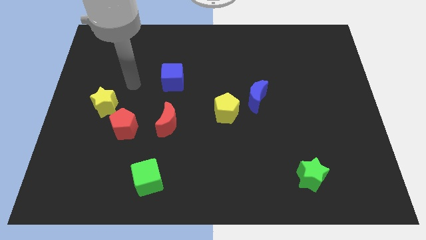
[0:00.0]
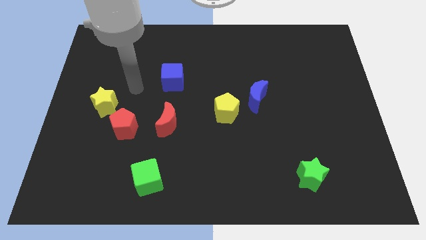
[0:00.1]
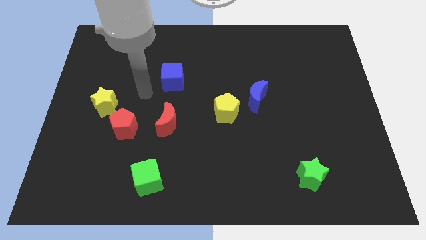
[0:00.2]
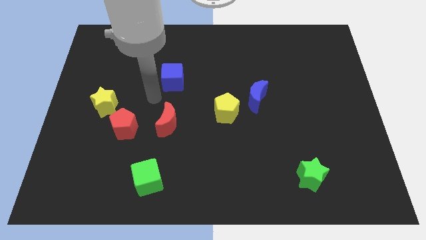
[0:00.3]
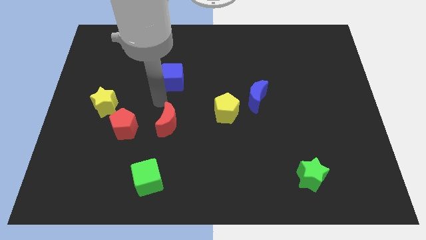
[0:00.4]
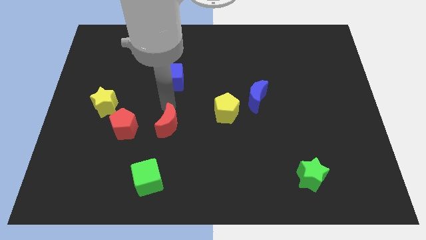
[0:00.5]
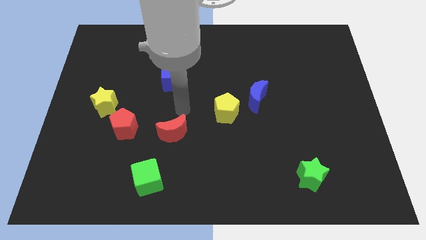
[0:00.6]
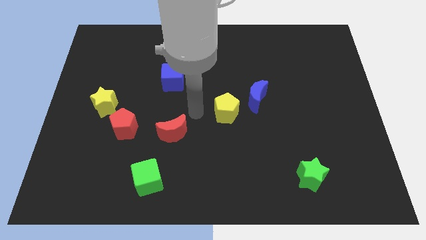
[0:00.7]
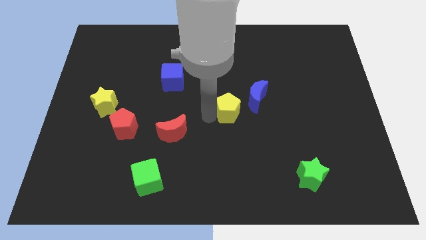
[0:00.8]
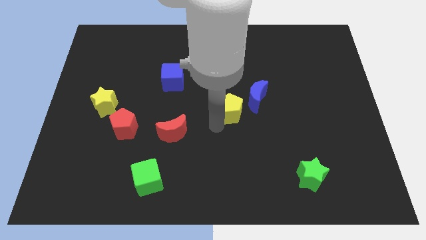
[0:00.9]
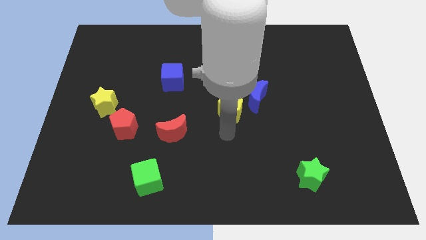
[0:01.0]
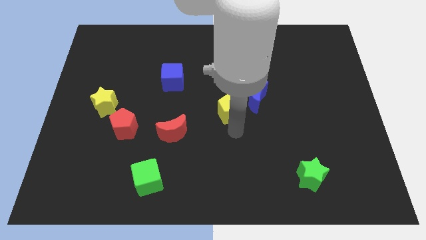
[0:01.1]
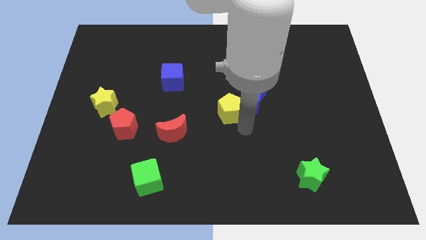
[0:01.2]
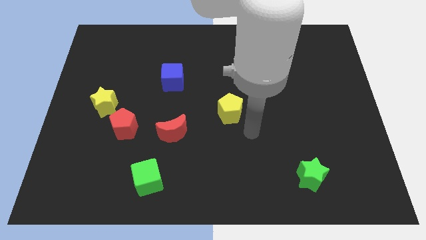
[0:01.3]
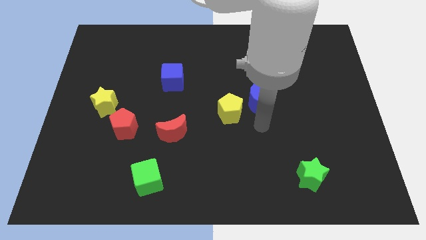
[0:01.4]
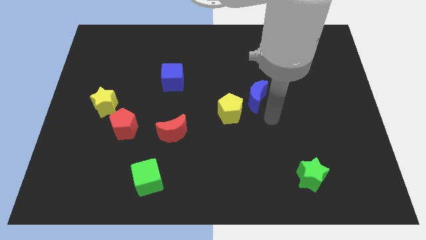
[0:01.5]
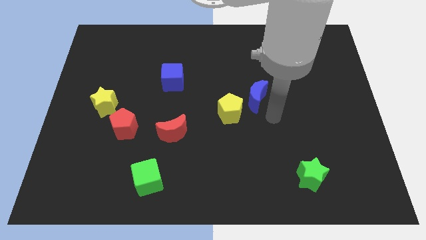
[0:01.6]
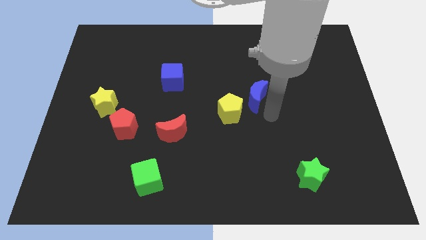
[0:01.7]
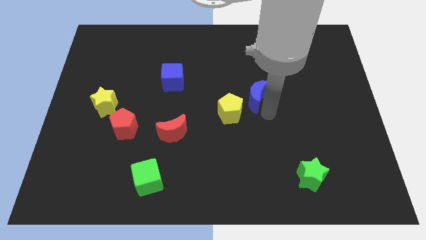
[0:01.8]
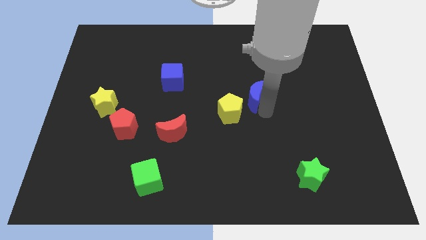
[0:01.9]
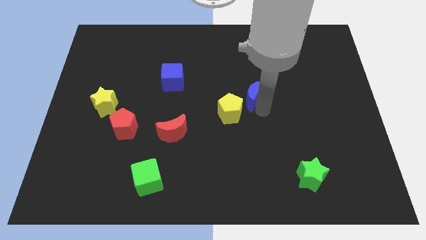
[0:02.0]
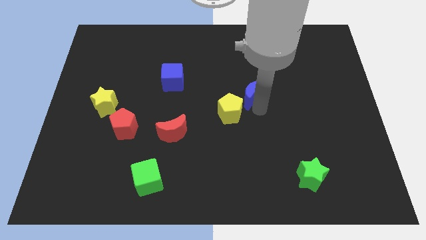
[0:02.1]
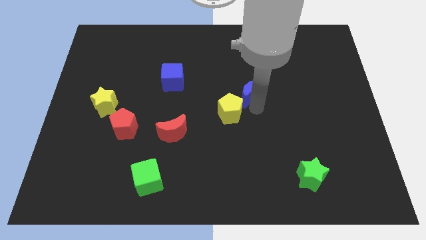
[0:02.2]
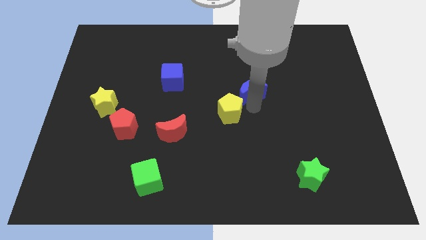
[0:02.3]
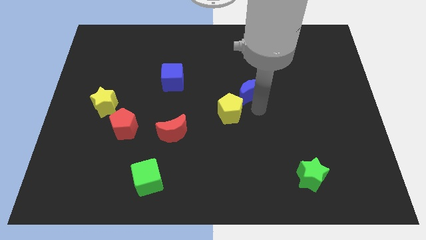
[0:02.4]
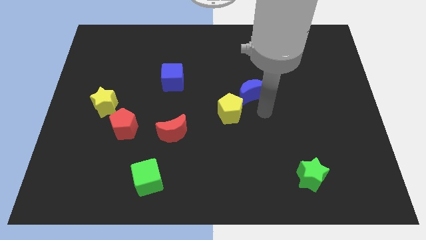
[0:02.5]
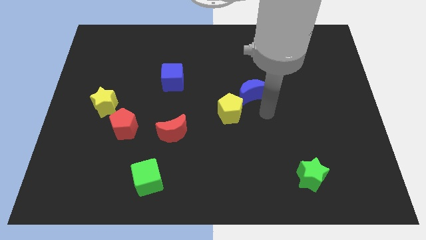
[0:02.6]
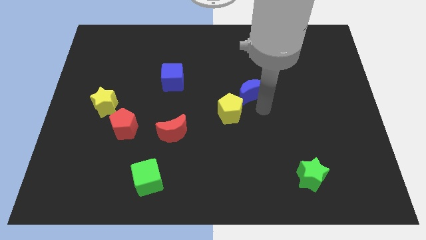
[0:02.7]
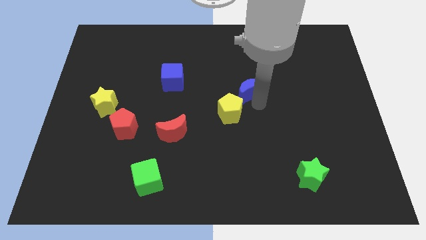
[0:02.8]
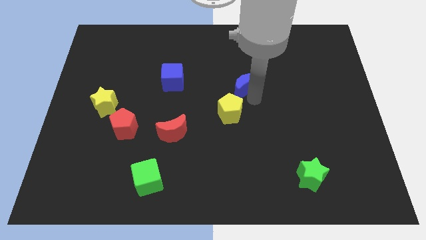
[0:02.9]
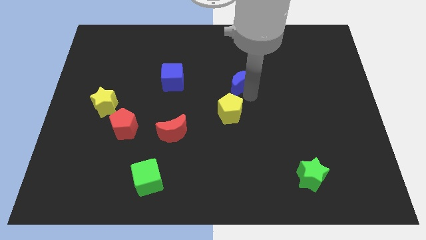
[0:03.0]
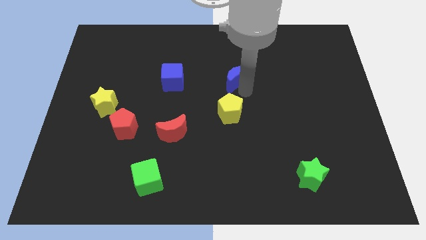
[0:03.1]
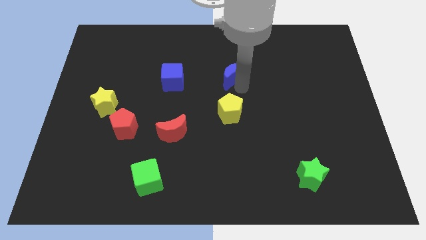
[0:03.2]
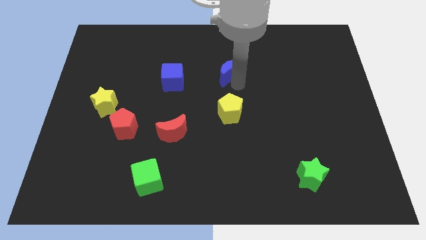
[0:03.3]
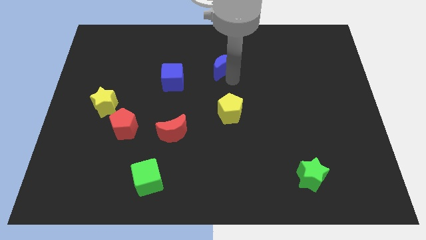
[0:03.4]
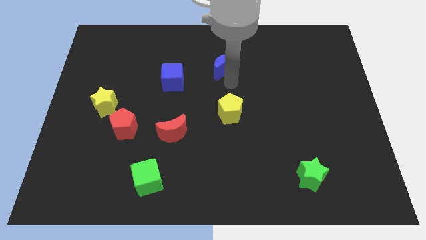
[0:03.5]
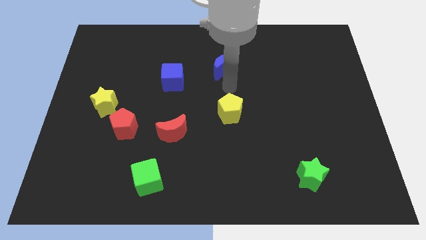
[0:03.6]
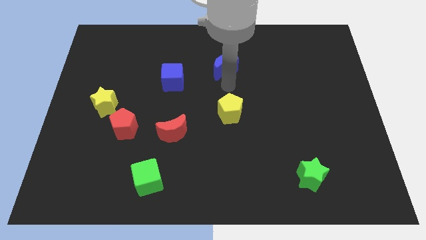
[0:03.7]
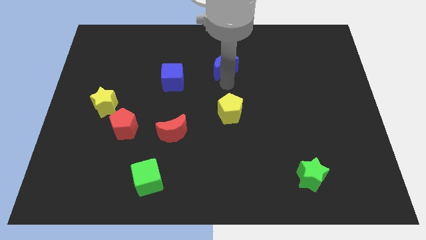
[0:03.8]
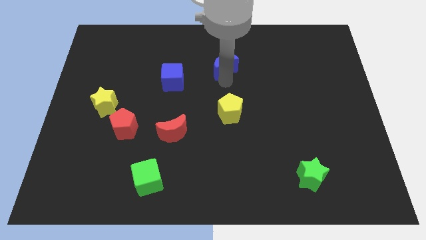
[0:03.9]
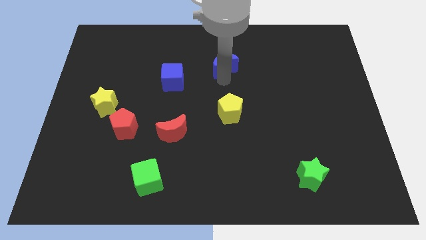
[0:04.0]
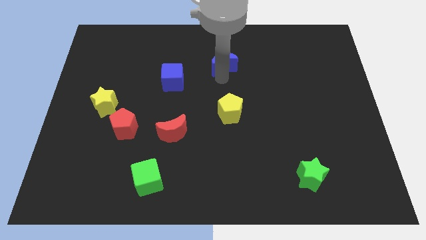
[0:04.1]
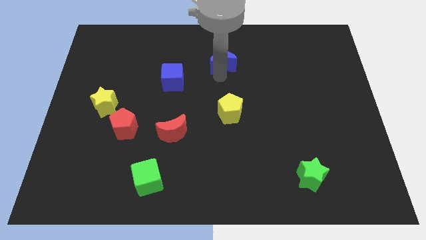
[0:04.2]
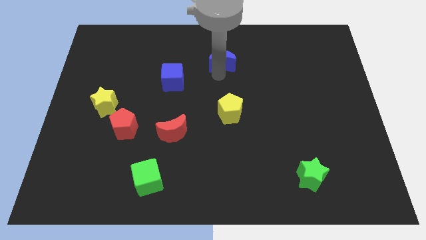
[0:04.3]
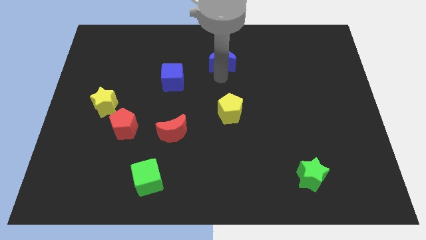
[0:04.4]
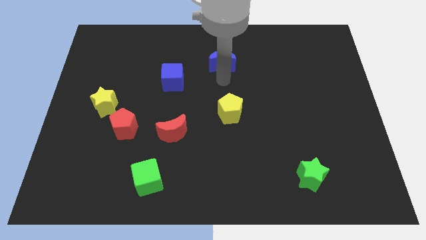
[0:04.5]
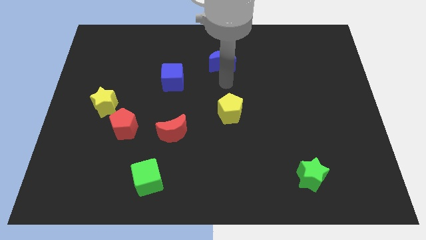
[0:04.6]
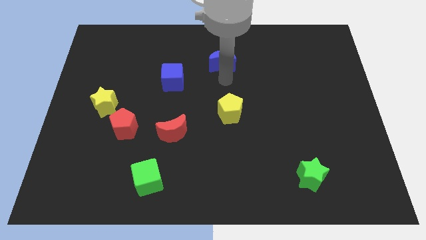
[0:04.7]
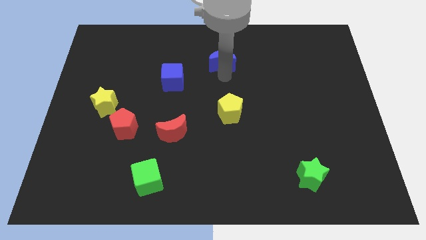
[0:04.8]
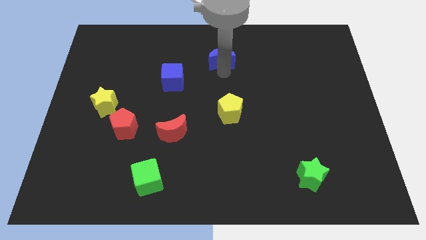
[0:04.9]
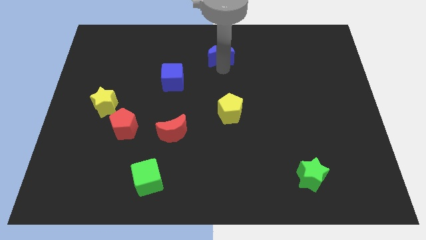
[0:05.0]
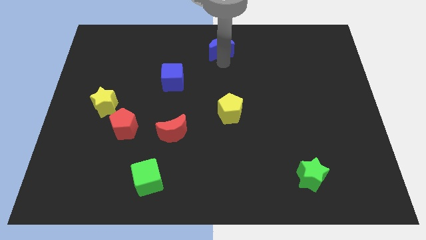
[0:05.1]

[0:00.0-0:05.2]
move the blue moon to the towards your base

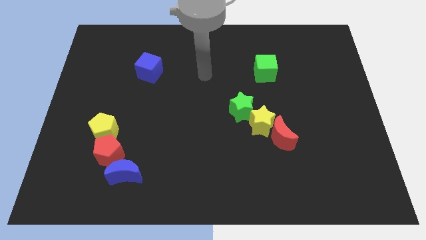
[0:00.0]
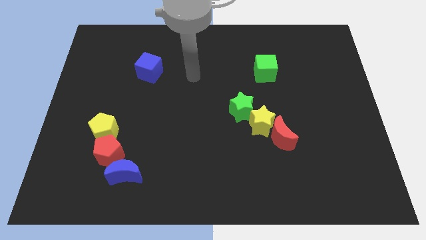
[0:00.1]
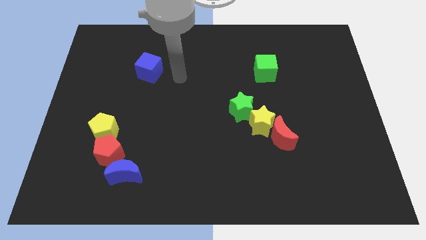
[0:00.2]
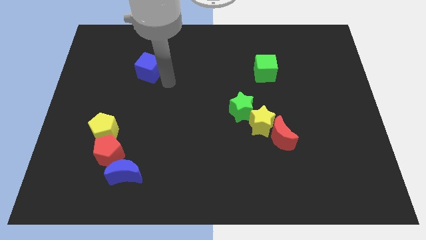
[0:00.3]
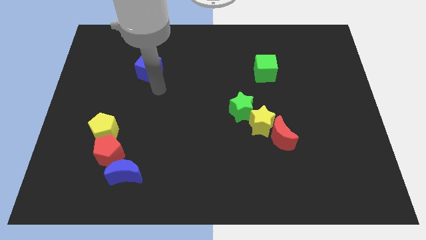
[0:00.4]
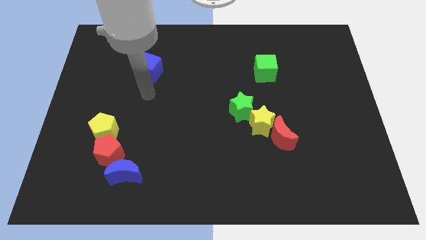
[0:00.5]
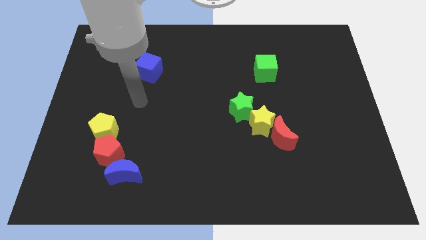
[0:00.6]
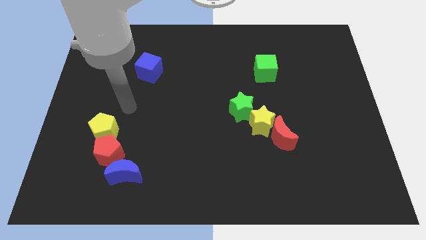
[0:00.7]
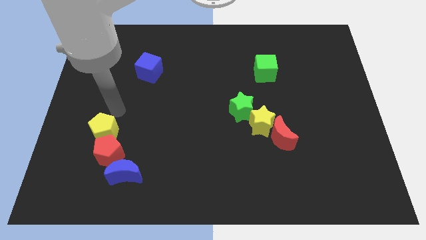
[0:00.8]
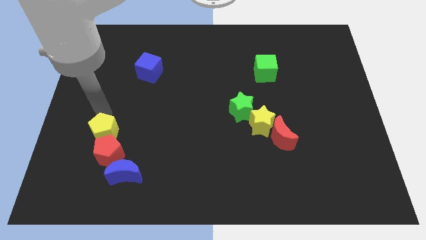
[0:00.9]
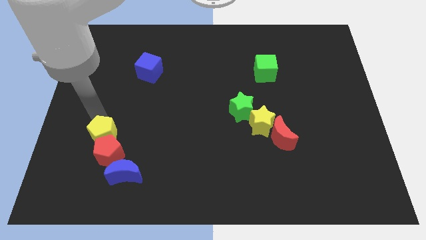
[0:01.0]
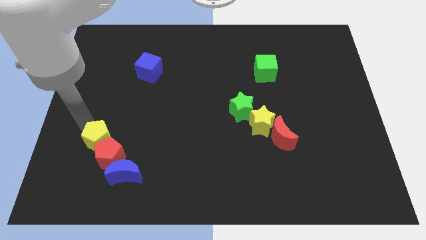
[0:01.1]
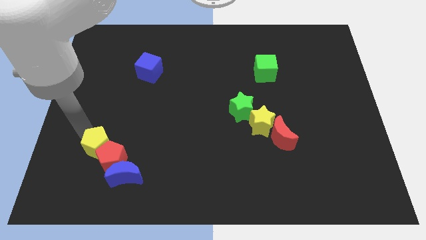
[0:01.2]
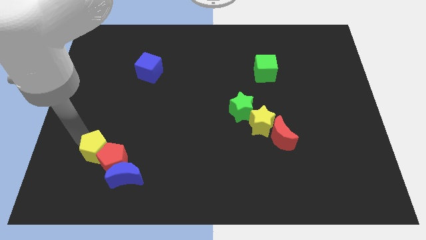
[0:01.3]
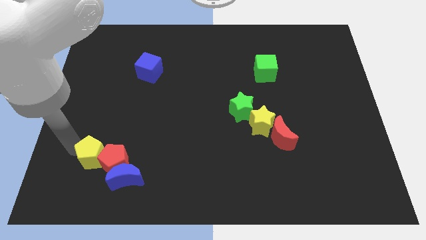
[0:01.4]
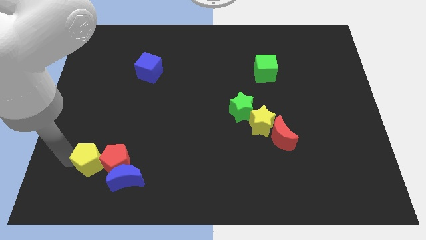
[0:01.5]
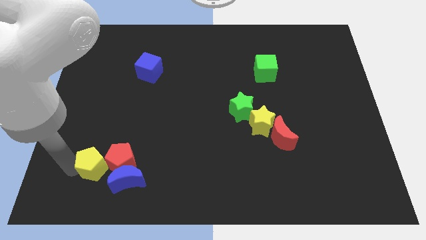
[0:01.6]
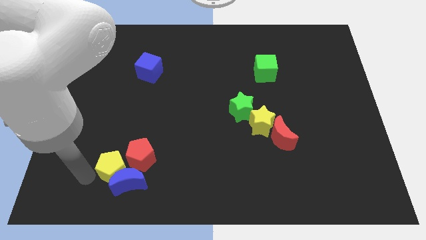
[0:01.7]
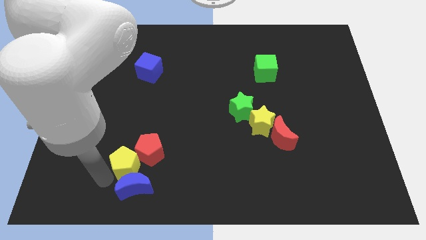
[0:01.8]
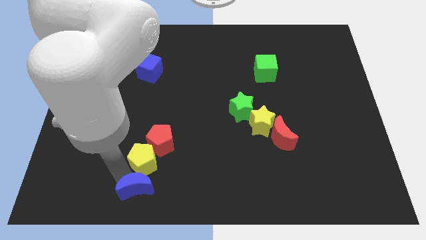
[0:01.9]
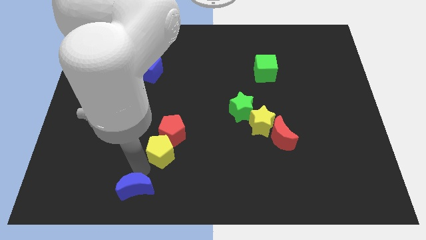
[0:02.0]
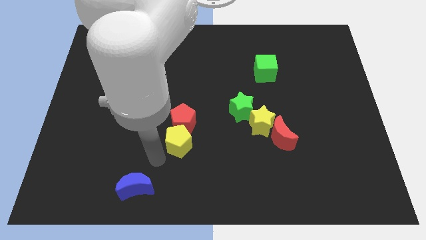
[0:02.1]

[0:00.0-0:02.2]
slide the red pentagon to the middle of the board

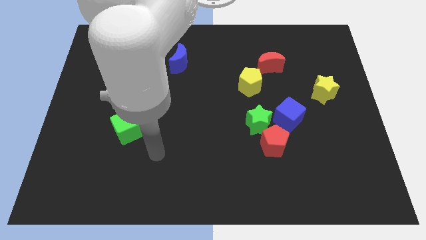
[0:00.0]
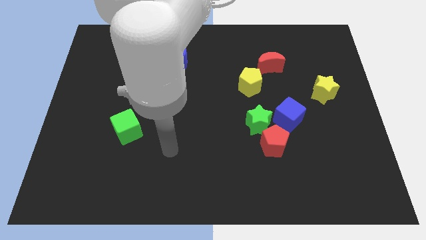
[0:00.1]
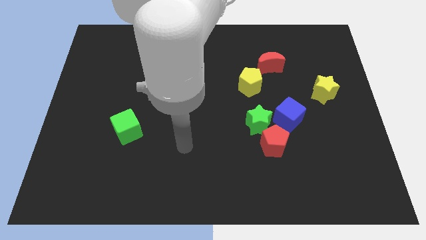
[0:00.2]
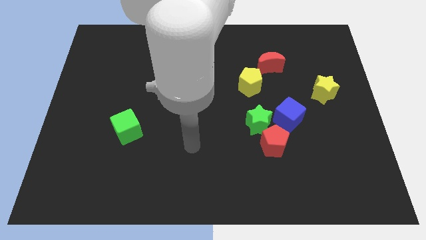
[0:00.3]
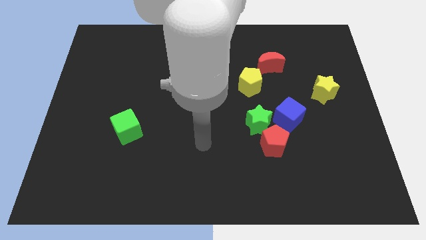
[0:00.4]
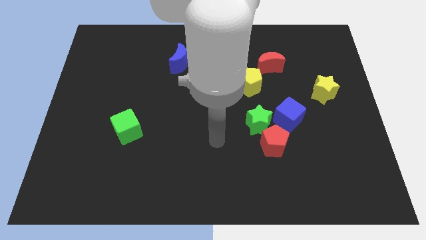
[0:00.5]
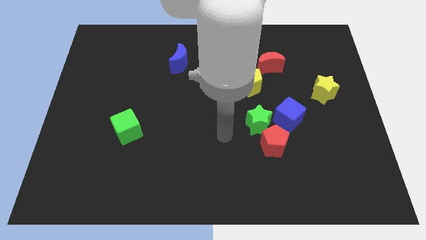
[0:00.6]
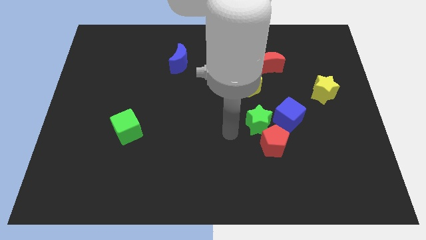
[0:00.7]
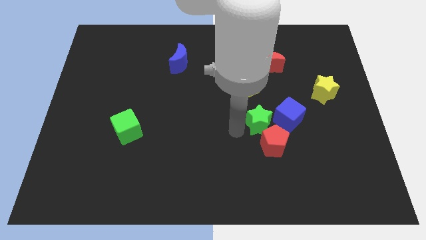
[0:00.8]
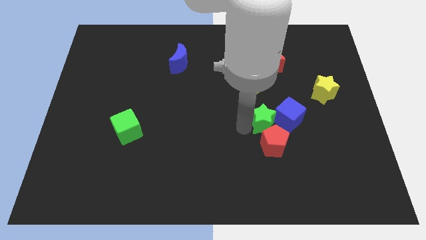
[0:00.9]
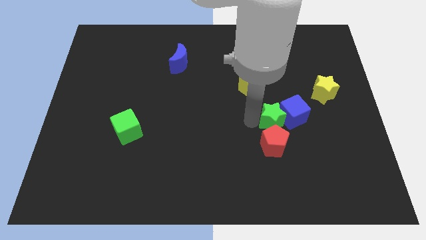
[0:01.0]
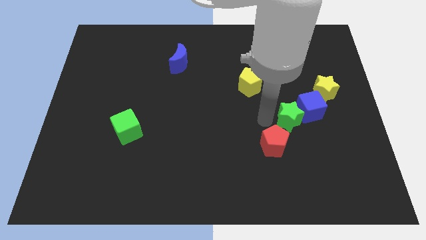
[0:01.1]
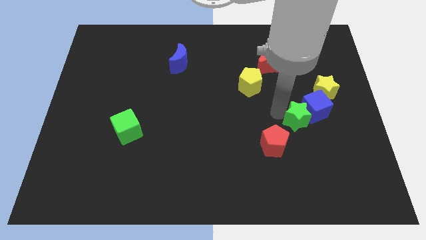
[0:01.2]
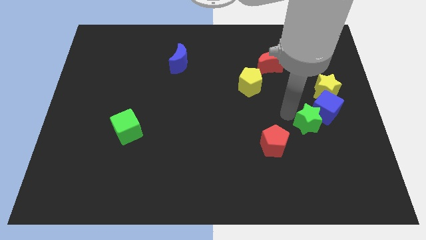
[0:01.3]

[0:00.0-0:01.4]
slide the blue cube to the right side
